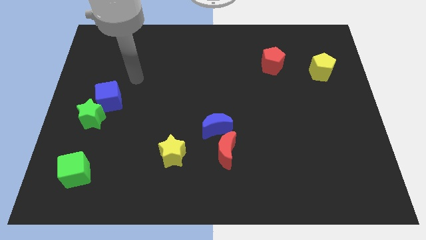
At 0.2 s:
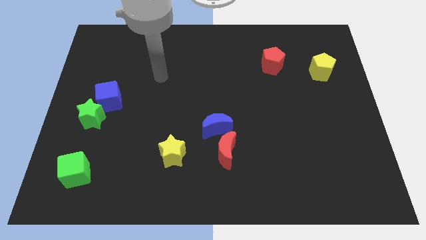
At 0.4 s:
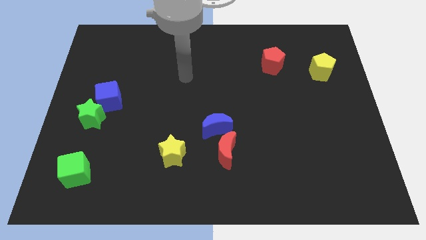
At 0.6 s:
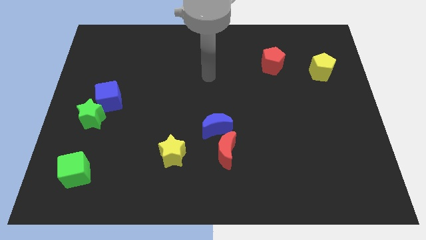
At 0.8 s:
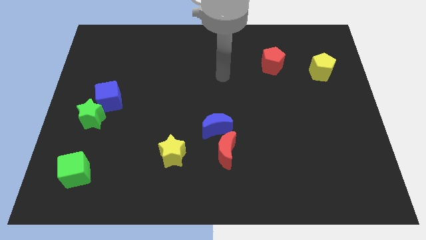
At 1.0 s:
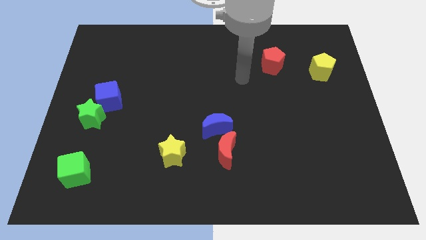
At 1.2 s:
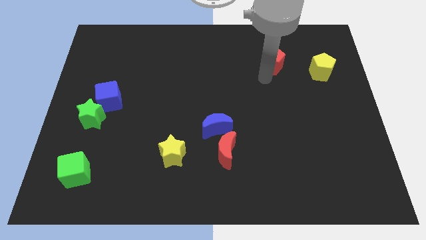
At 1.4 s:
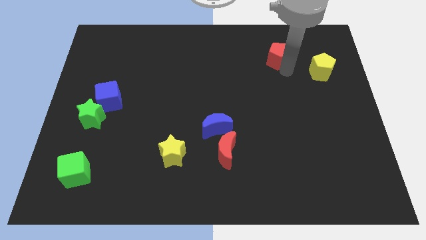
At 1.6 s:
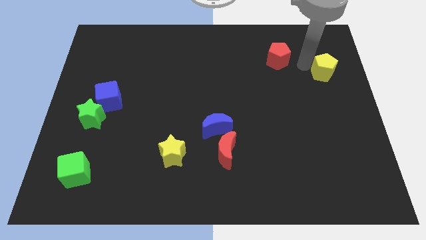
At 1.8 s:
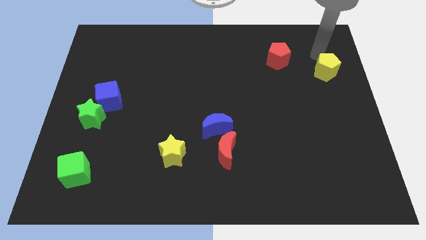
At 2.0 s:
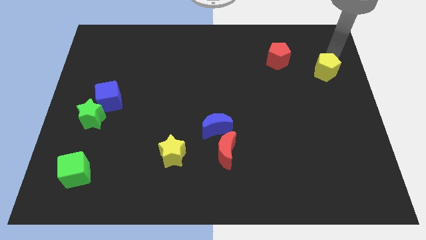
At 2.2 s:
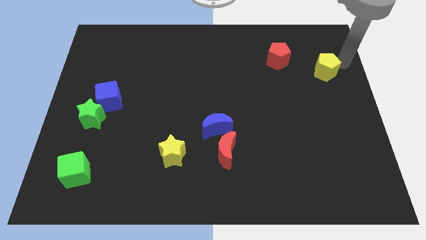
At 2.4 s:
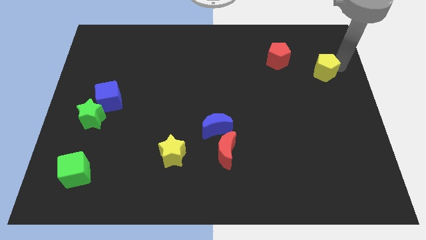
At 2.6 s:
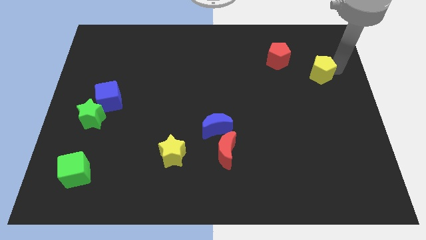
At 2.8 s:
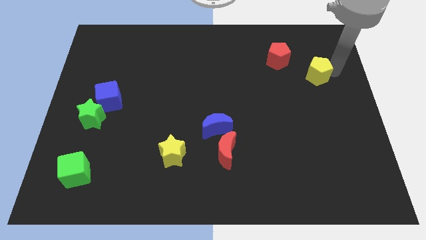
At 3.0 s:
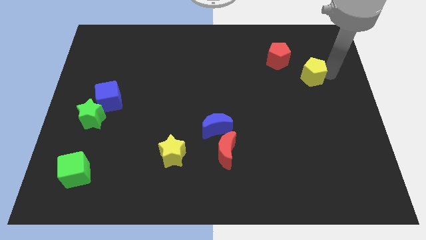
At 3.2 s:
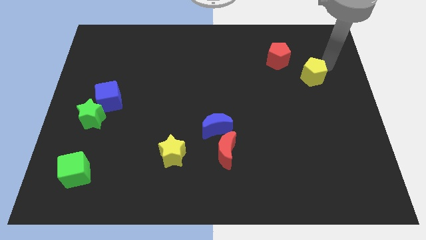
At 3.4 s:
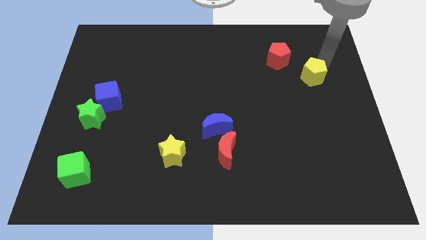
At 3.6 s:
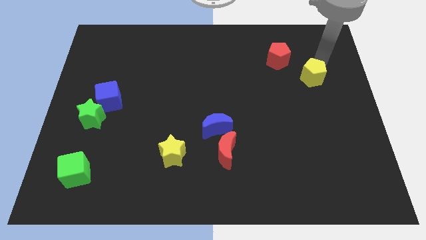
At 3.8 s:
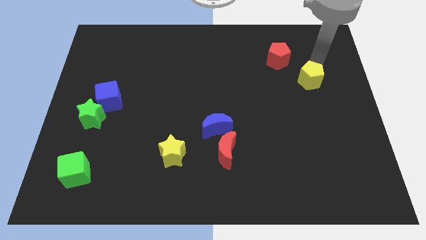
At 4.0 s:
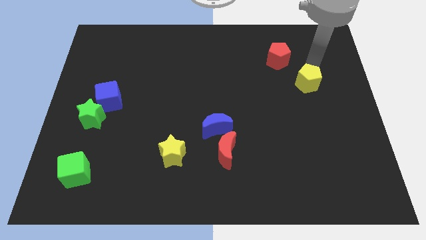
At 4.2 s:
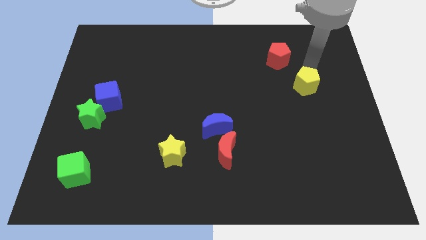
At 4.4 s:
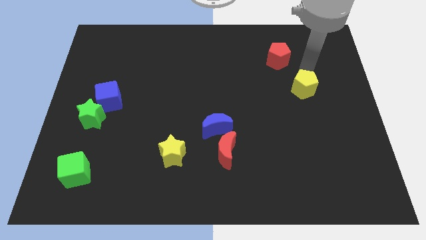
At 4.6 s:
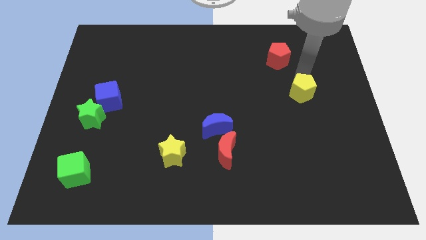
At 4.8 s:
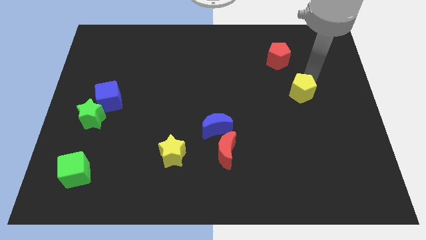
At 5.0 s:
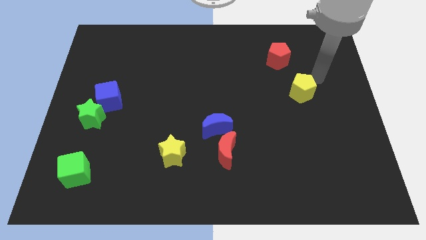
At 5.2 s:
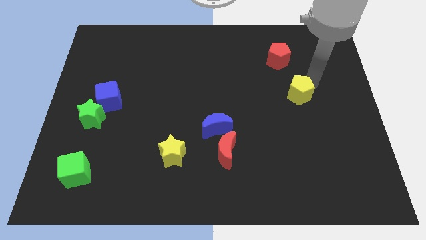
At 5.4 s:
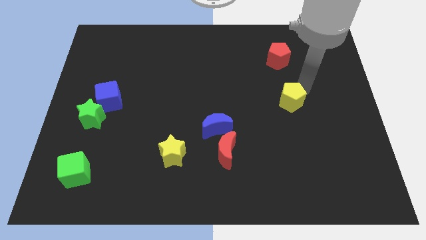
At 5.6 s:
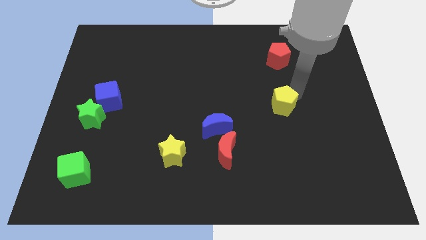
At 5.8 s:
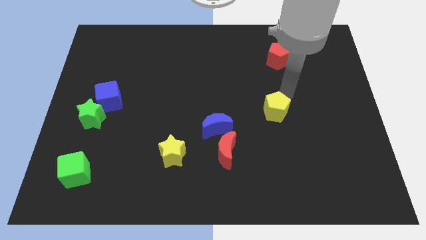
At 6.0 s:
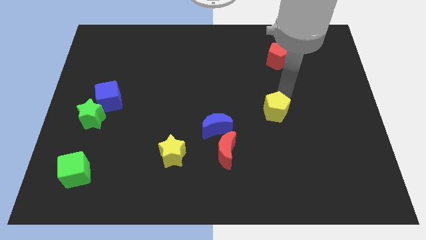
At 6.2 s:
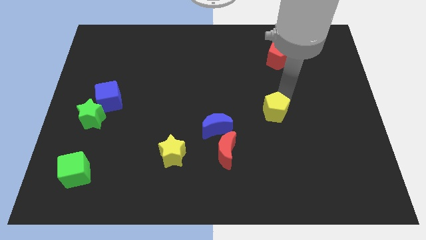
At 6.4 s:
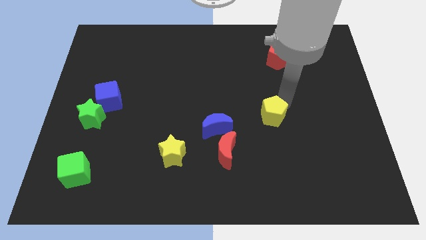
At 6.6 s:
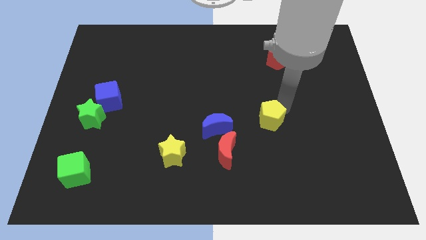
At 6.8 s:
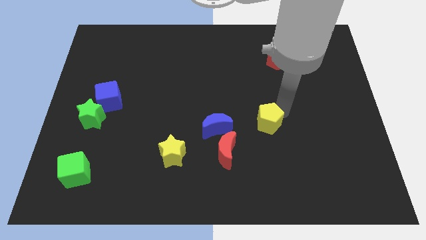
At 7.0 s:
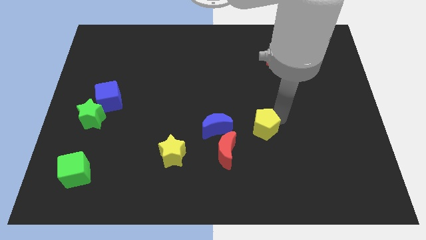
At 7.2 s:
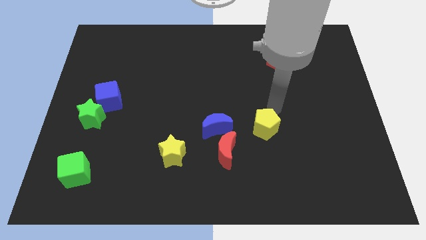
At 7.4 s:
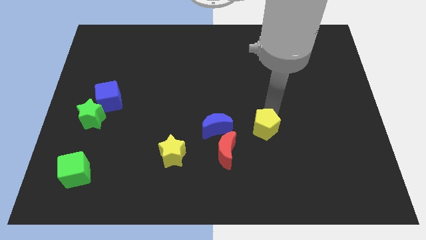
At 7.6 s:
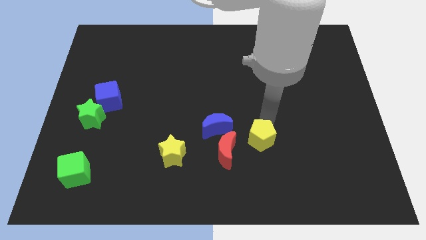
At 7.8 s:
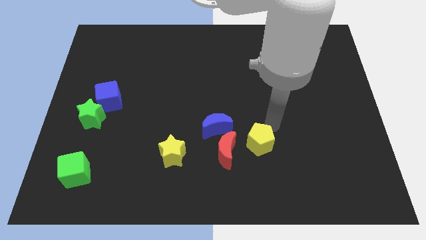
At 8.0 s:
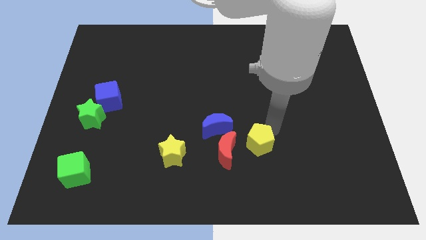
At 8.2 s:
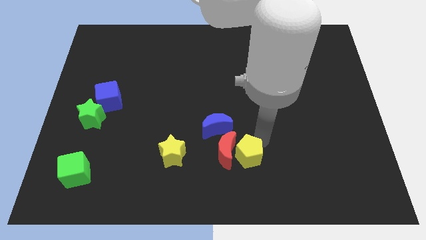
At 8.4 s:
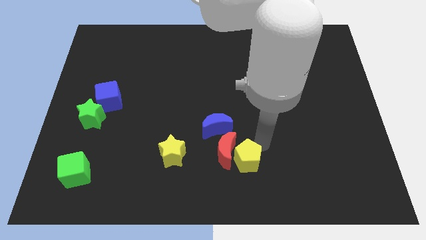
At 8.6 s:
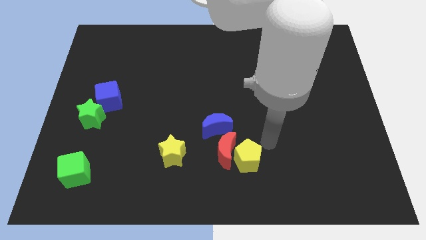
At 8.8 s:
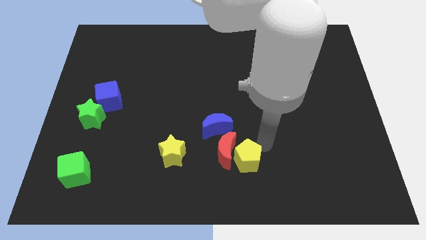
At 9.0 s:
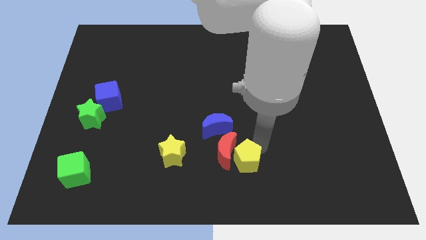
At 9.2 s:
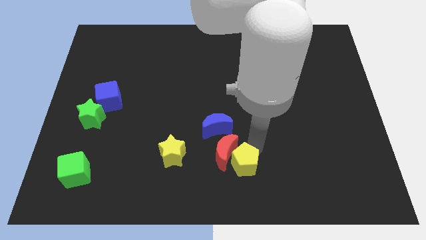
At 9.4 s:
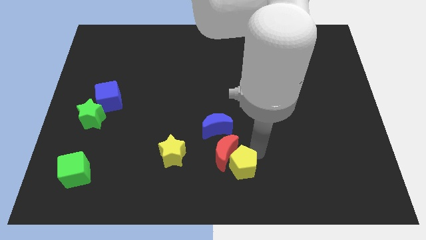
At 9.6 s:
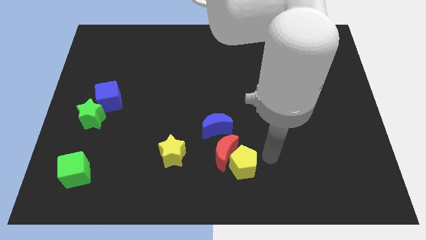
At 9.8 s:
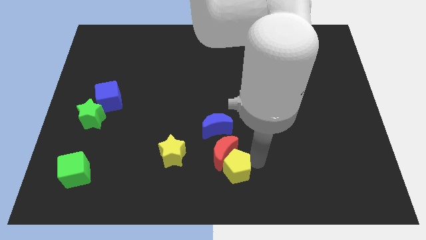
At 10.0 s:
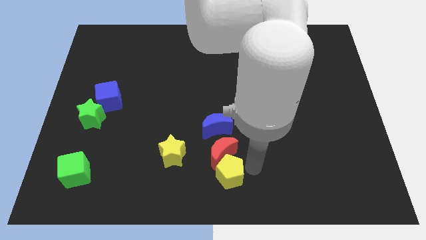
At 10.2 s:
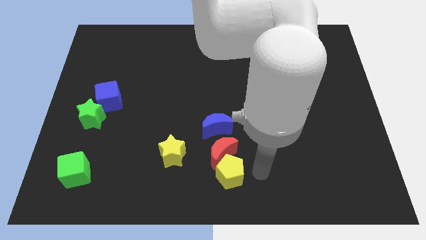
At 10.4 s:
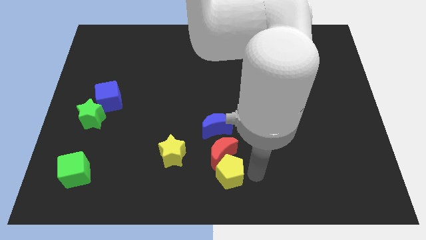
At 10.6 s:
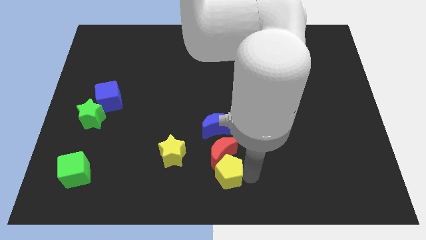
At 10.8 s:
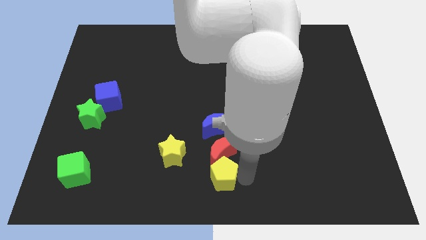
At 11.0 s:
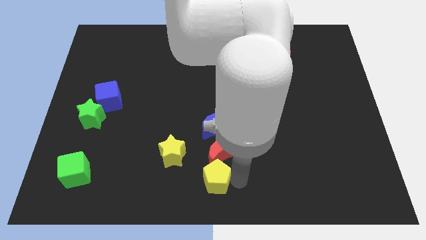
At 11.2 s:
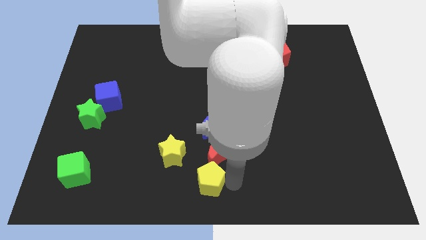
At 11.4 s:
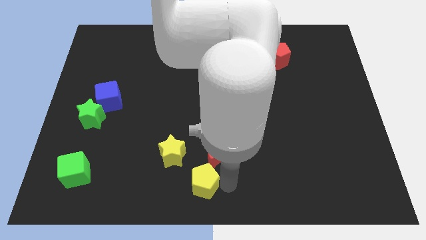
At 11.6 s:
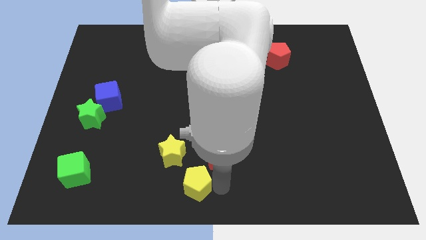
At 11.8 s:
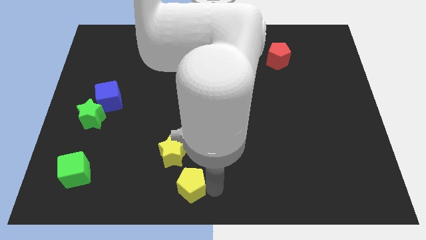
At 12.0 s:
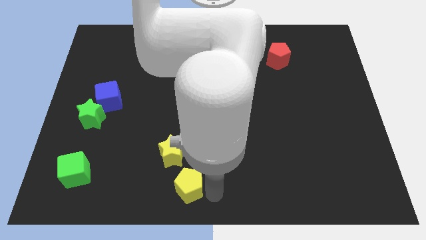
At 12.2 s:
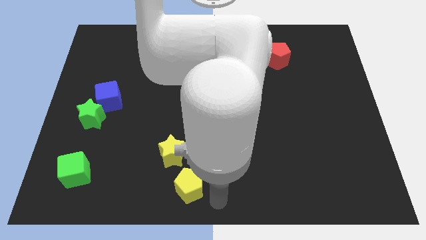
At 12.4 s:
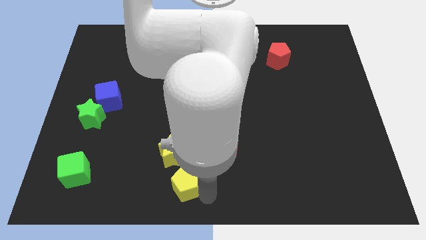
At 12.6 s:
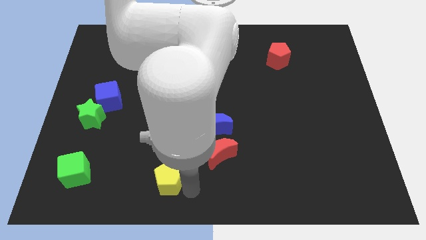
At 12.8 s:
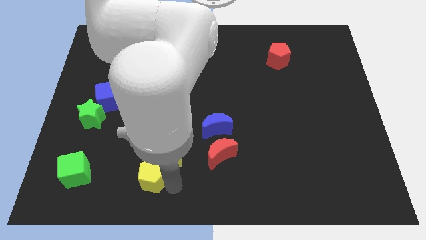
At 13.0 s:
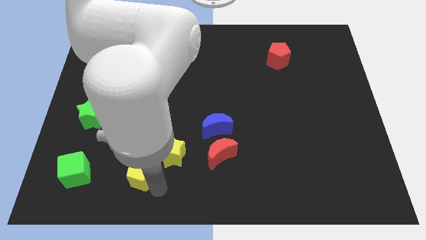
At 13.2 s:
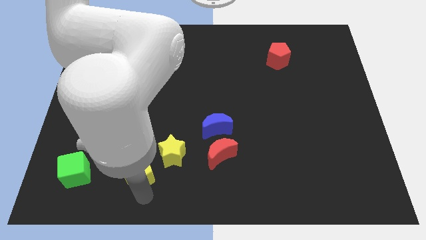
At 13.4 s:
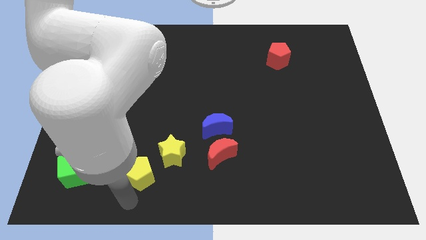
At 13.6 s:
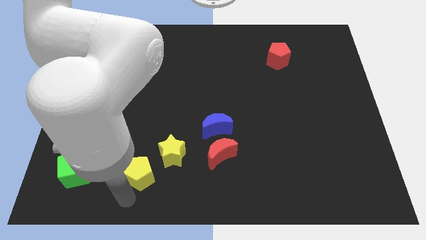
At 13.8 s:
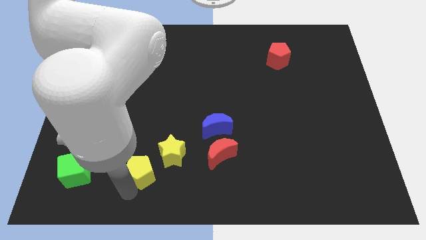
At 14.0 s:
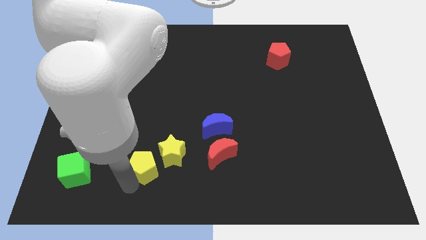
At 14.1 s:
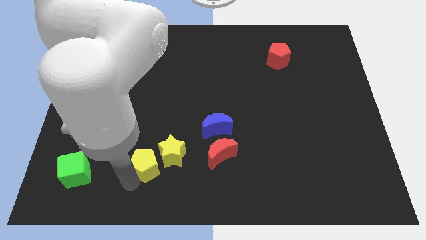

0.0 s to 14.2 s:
push the yellow pentagon left of the red moon
